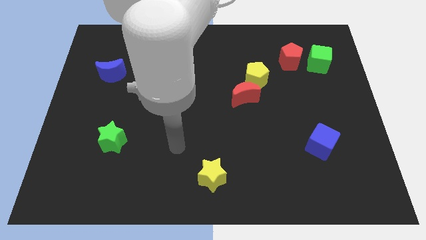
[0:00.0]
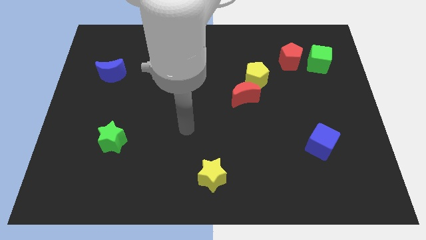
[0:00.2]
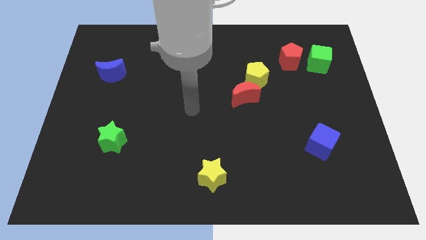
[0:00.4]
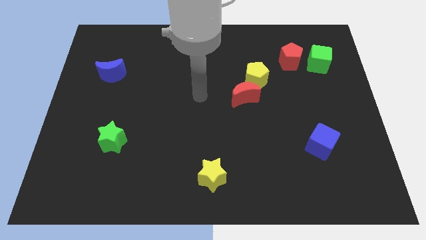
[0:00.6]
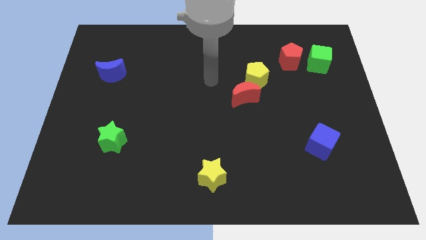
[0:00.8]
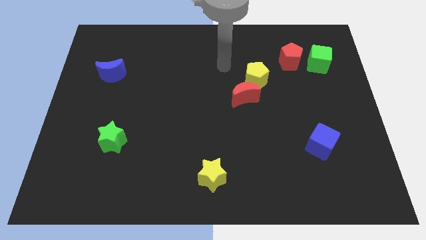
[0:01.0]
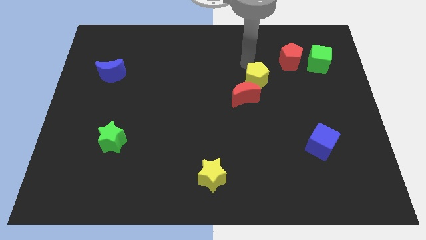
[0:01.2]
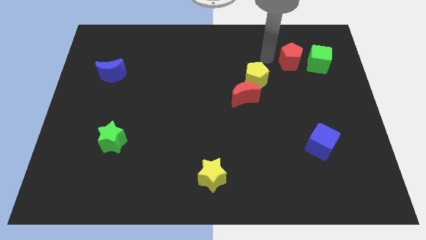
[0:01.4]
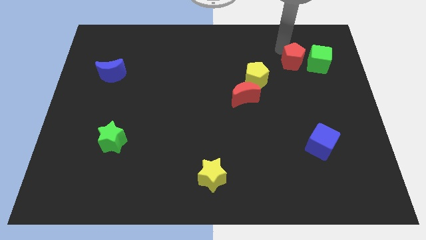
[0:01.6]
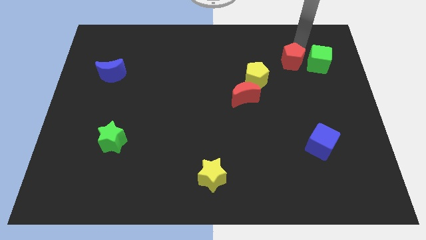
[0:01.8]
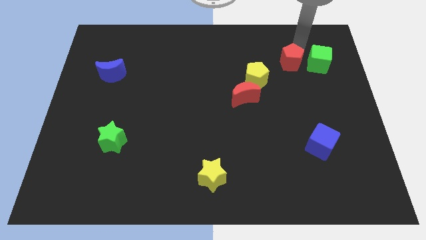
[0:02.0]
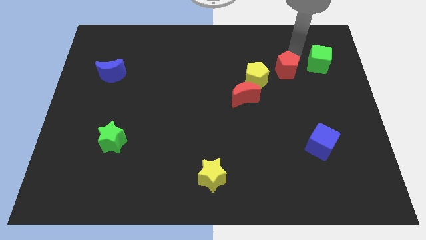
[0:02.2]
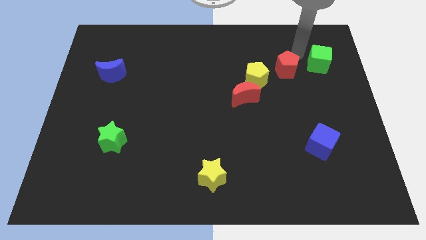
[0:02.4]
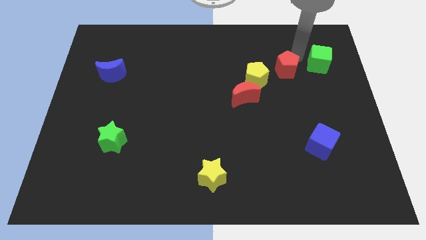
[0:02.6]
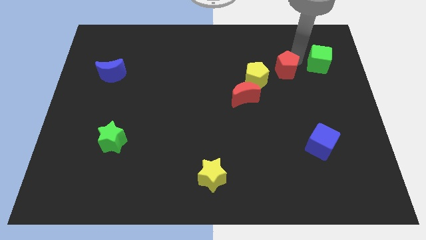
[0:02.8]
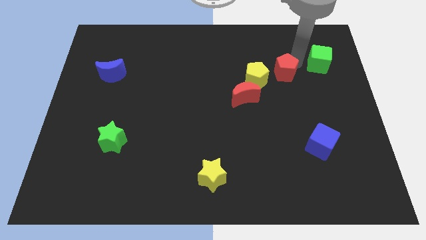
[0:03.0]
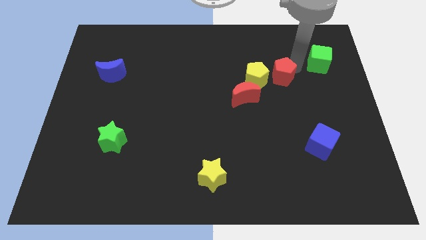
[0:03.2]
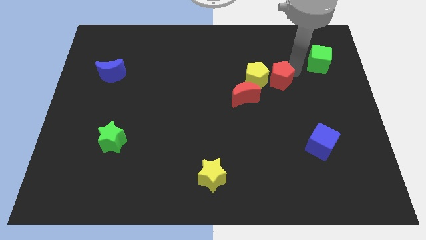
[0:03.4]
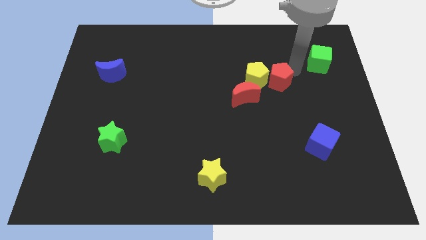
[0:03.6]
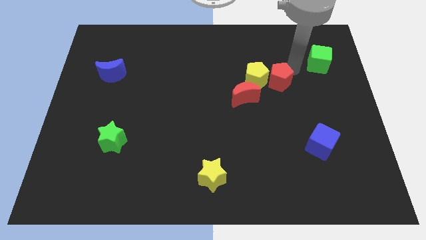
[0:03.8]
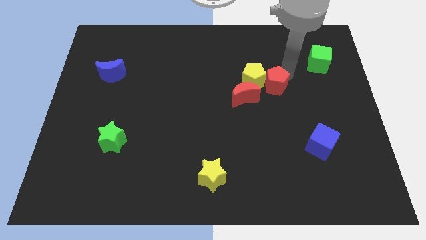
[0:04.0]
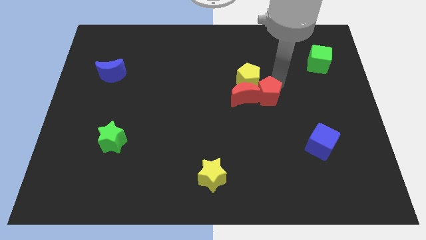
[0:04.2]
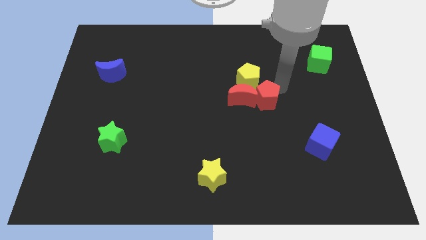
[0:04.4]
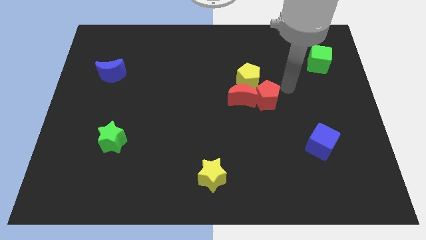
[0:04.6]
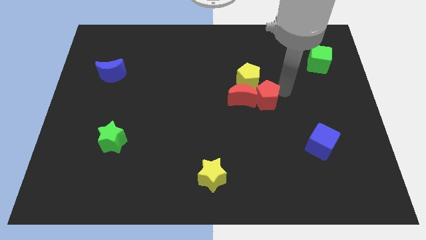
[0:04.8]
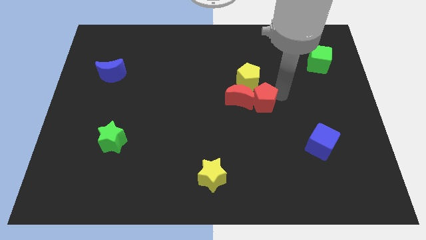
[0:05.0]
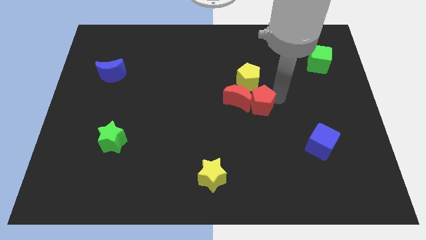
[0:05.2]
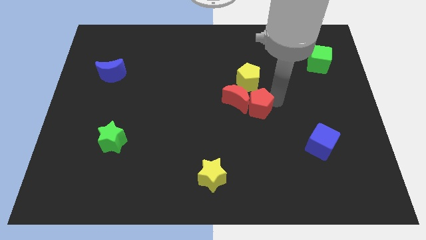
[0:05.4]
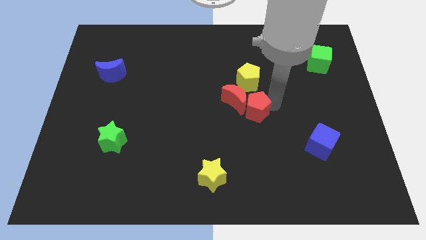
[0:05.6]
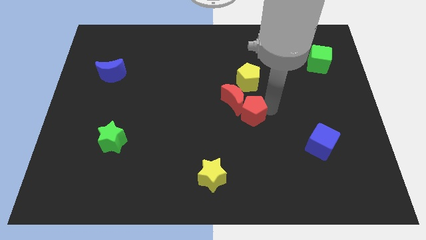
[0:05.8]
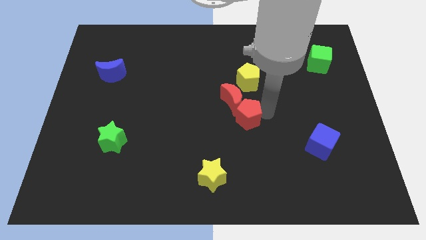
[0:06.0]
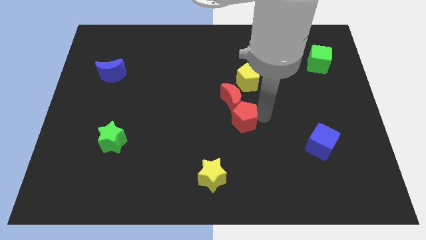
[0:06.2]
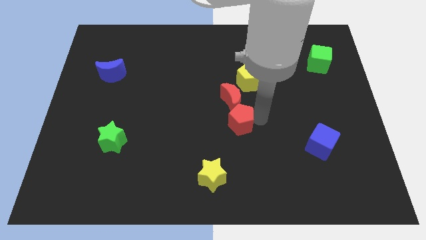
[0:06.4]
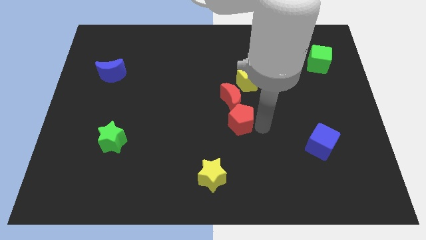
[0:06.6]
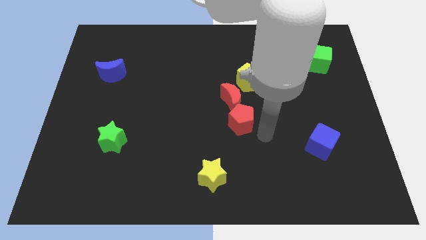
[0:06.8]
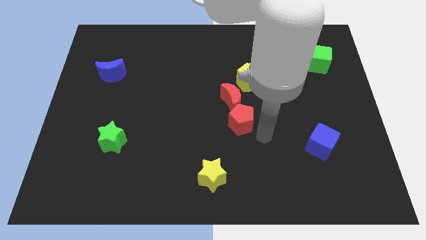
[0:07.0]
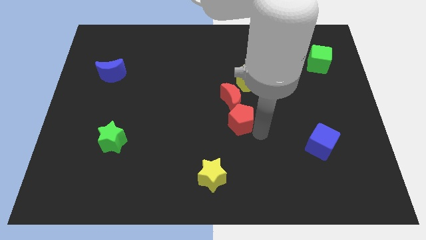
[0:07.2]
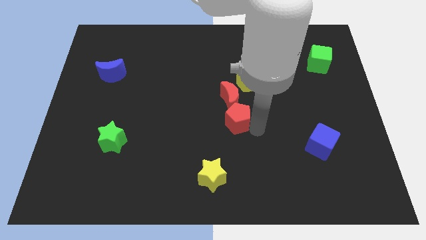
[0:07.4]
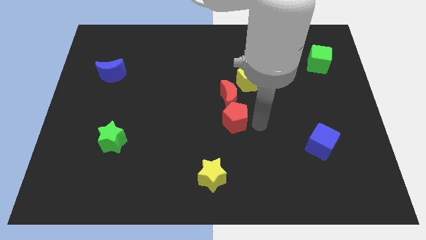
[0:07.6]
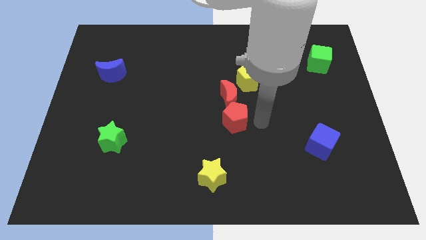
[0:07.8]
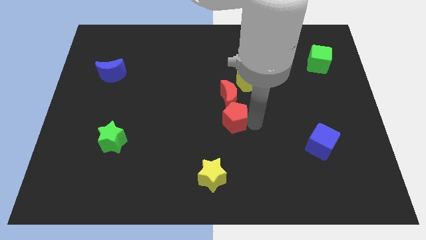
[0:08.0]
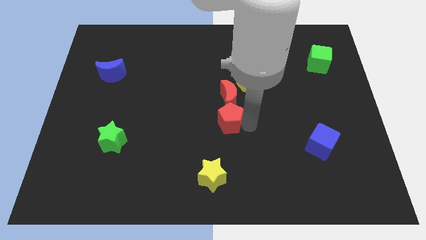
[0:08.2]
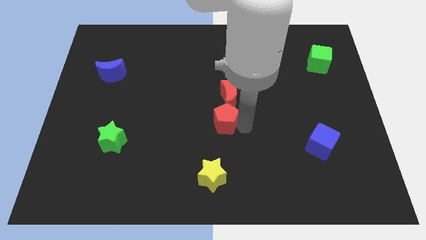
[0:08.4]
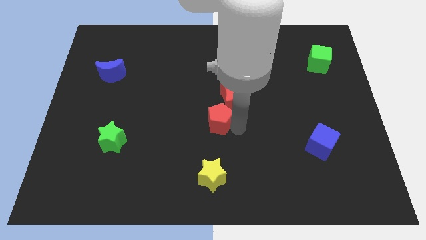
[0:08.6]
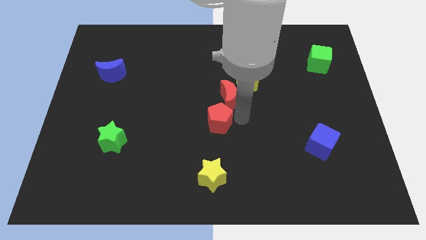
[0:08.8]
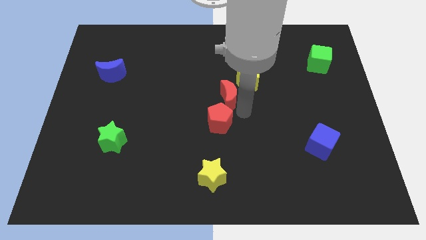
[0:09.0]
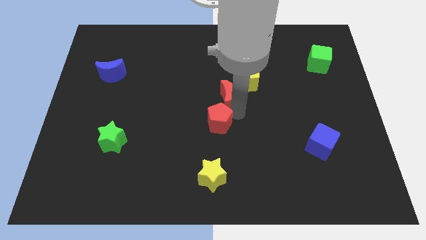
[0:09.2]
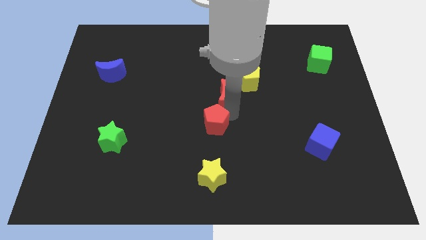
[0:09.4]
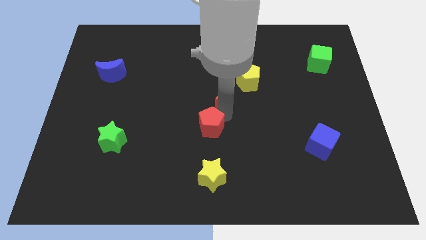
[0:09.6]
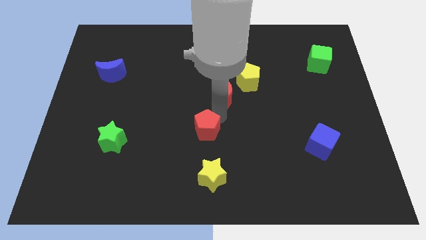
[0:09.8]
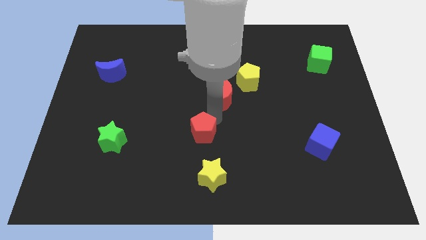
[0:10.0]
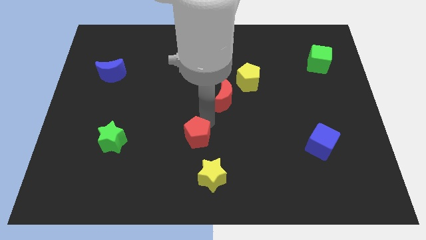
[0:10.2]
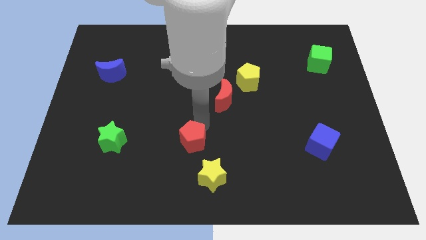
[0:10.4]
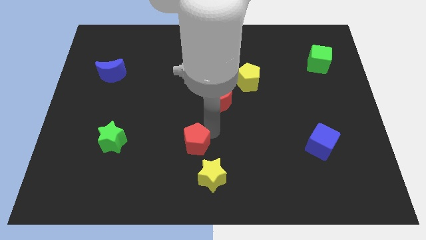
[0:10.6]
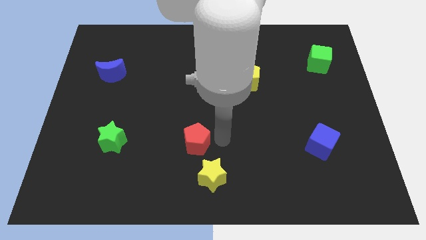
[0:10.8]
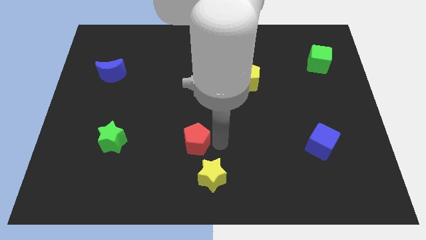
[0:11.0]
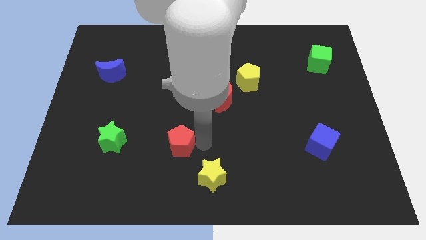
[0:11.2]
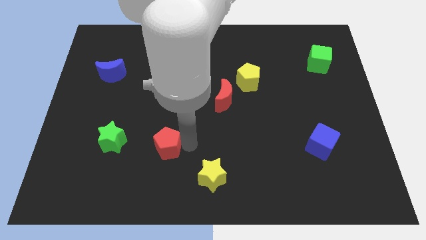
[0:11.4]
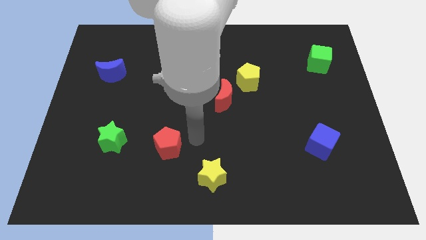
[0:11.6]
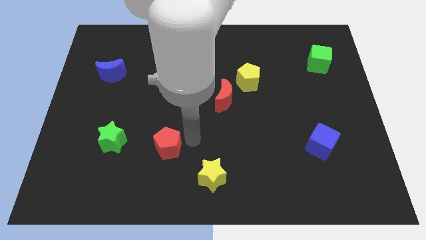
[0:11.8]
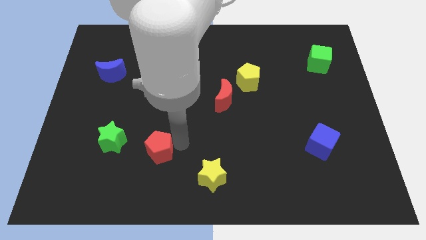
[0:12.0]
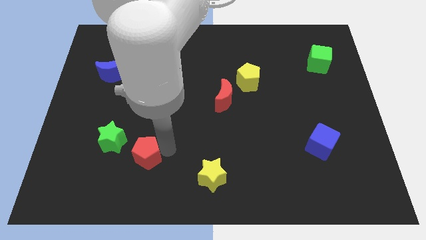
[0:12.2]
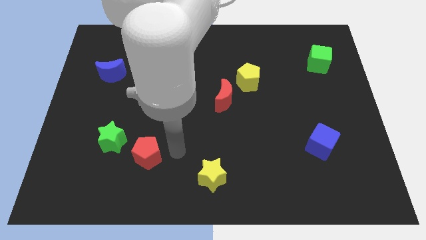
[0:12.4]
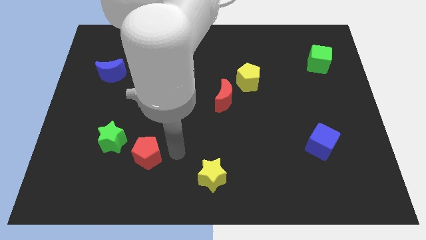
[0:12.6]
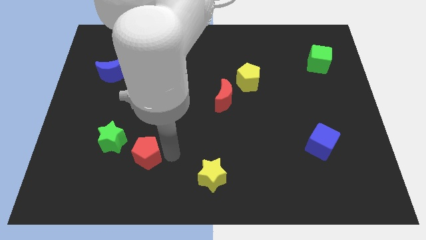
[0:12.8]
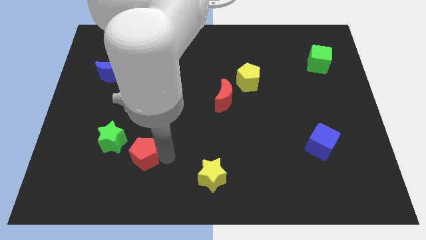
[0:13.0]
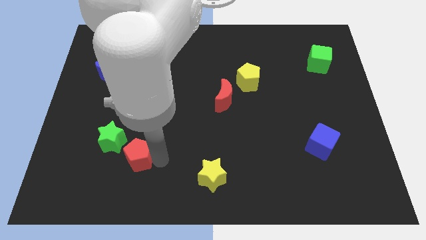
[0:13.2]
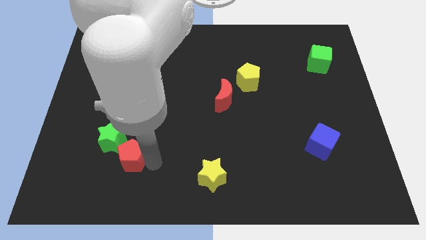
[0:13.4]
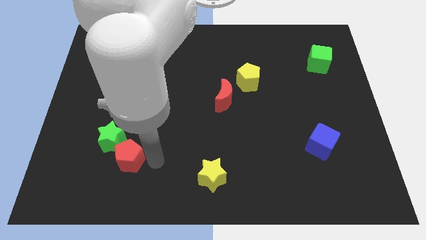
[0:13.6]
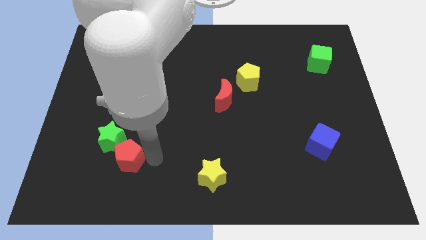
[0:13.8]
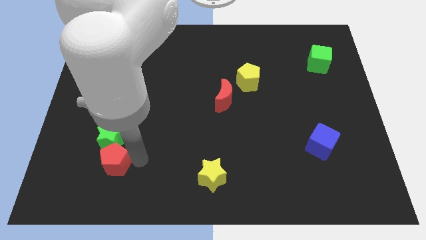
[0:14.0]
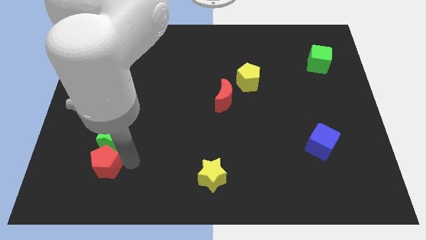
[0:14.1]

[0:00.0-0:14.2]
push the red pentagon to the bottom left of the green star

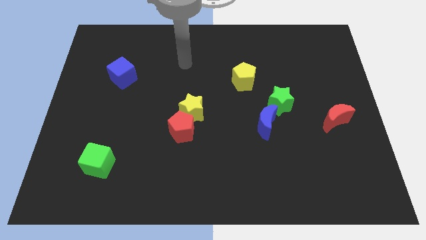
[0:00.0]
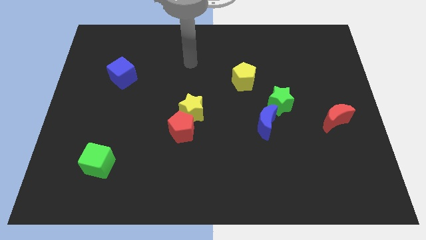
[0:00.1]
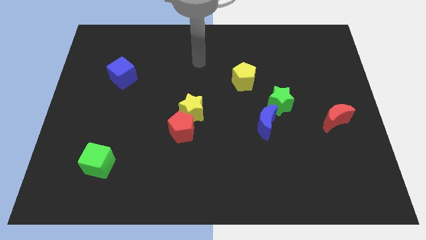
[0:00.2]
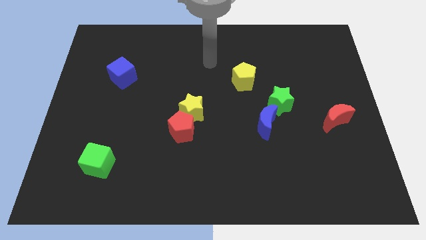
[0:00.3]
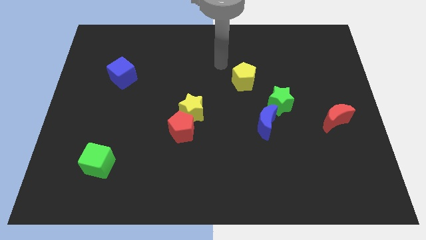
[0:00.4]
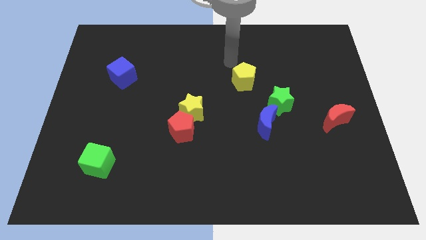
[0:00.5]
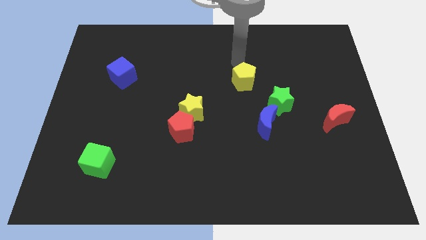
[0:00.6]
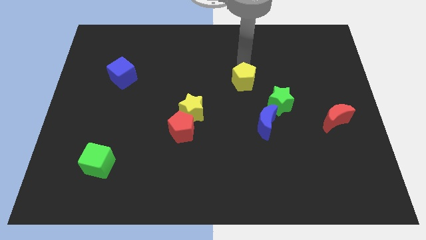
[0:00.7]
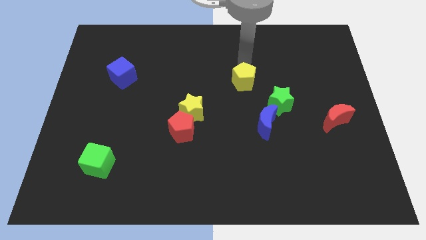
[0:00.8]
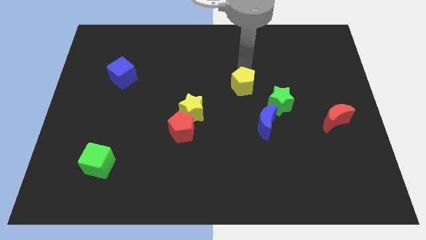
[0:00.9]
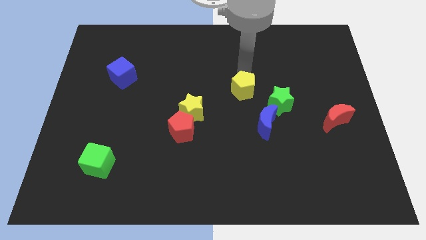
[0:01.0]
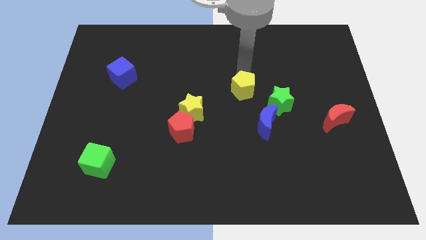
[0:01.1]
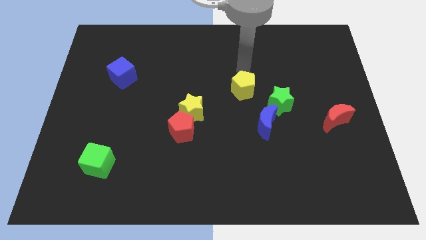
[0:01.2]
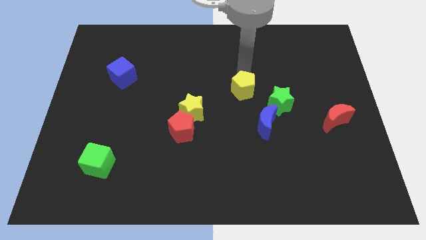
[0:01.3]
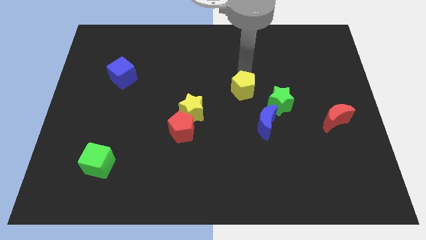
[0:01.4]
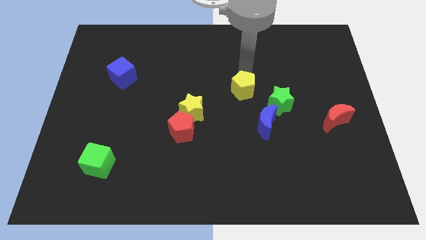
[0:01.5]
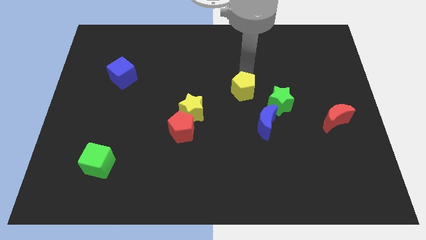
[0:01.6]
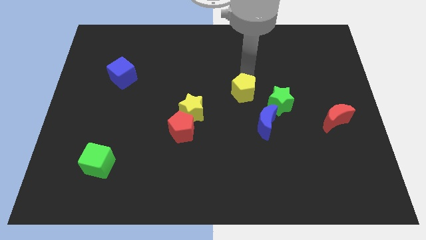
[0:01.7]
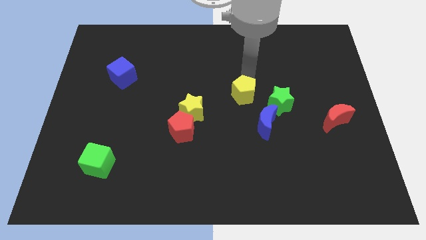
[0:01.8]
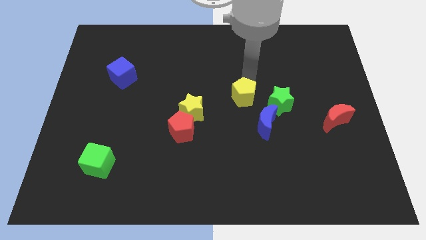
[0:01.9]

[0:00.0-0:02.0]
move the yellow pentagon just right of the yellow star
